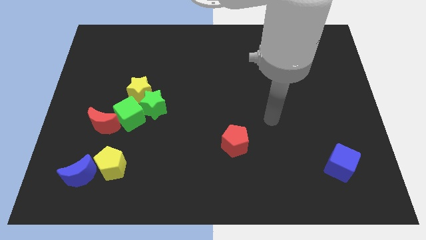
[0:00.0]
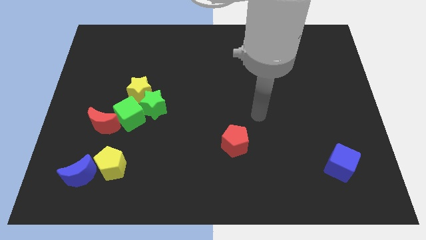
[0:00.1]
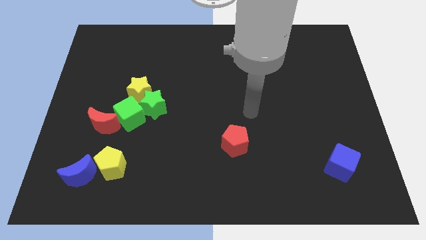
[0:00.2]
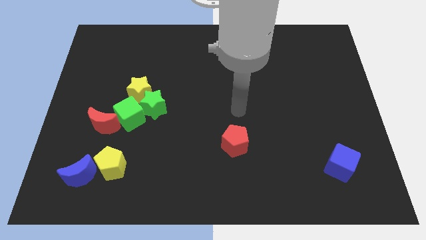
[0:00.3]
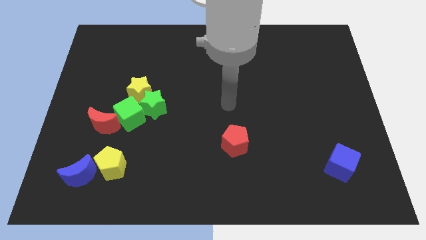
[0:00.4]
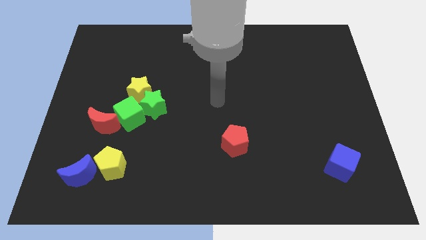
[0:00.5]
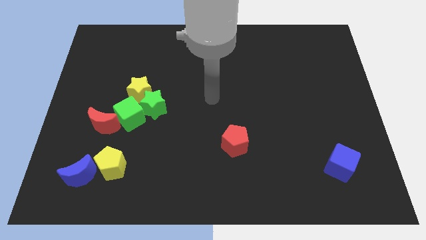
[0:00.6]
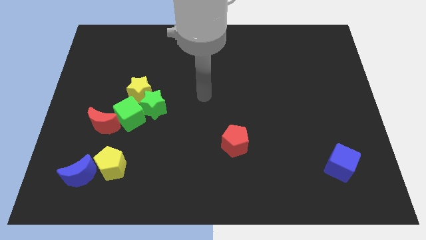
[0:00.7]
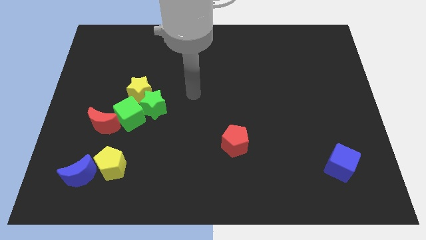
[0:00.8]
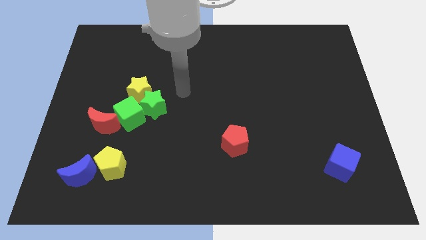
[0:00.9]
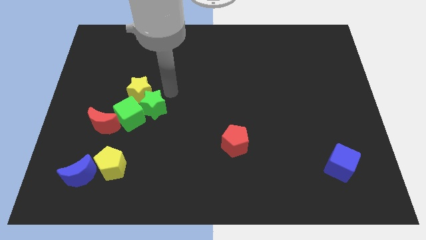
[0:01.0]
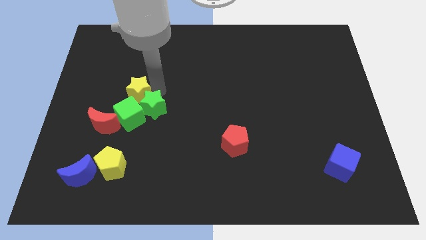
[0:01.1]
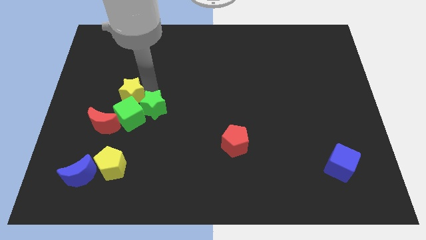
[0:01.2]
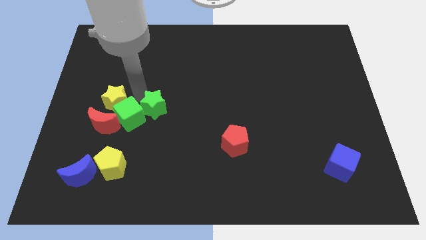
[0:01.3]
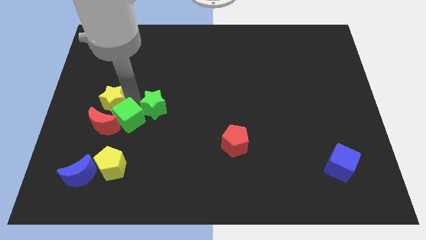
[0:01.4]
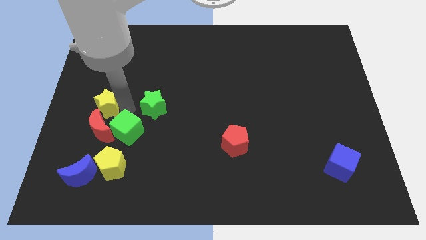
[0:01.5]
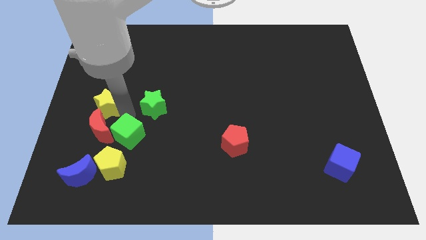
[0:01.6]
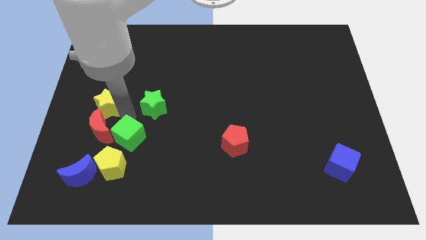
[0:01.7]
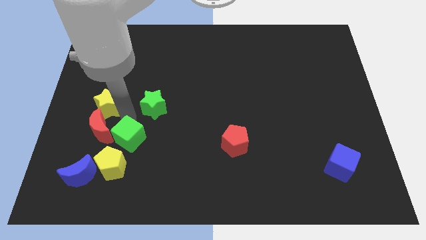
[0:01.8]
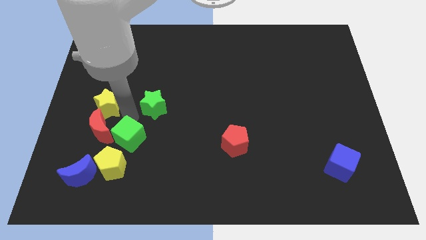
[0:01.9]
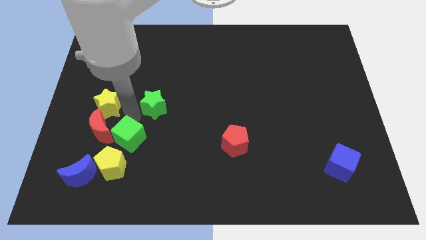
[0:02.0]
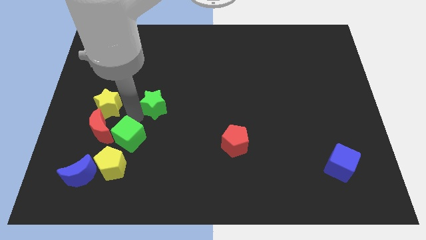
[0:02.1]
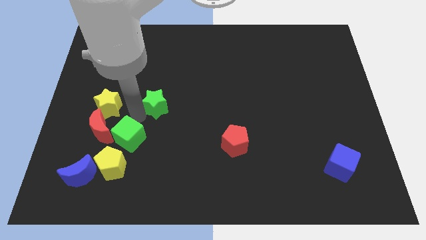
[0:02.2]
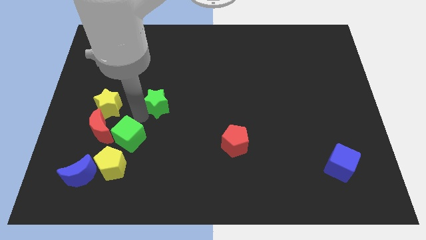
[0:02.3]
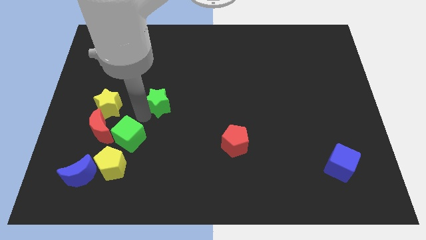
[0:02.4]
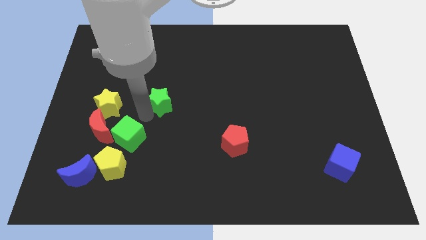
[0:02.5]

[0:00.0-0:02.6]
move the green star away from the yellow star and green cube

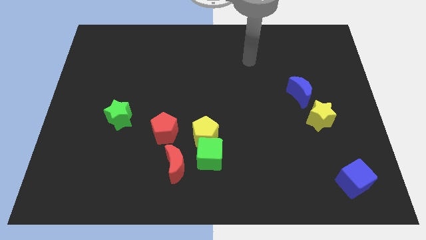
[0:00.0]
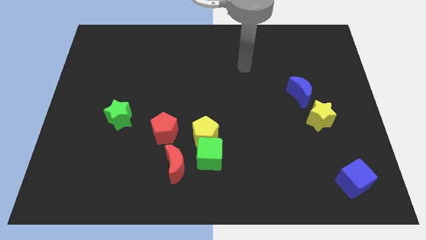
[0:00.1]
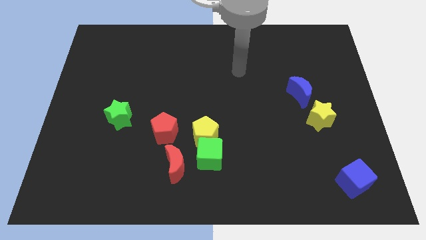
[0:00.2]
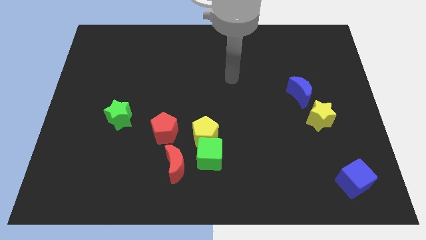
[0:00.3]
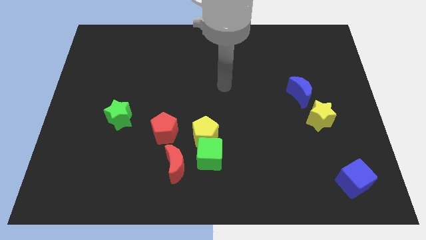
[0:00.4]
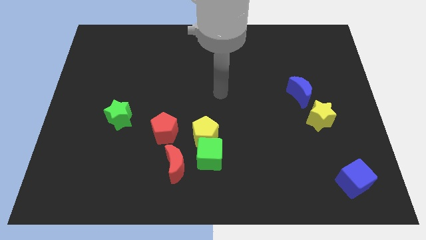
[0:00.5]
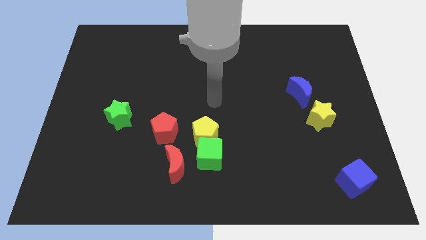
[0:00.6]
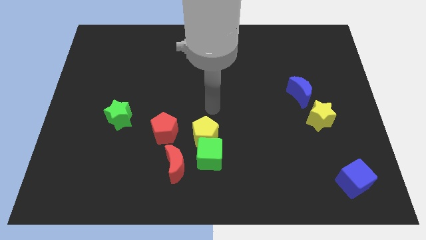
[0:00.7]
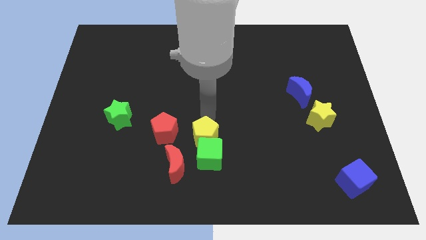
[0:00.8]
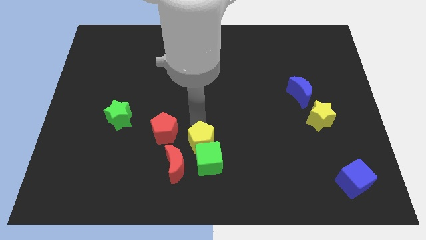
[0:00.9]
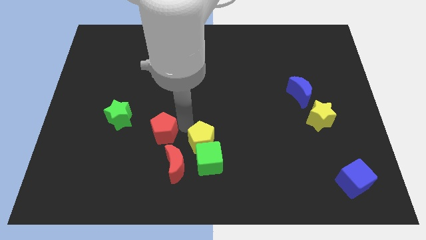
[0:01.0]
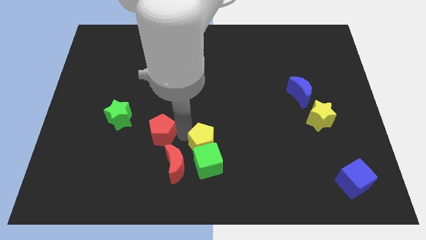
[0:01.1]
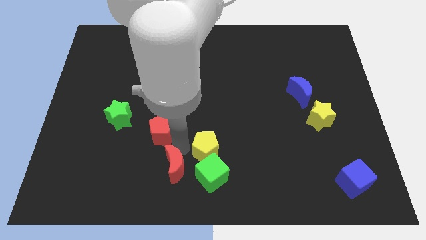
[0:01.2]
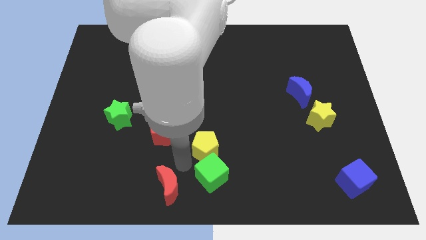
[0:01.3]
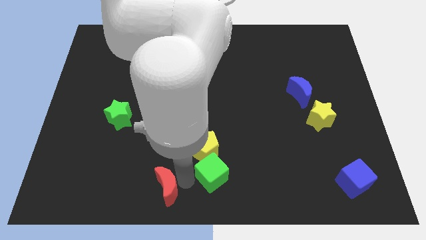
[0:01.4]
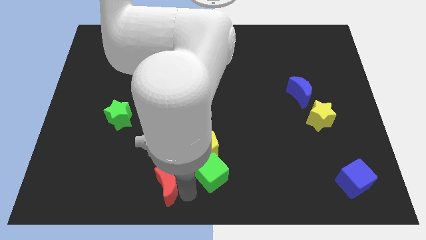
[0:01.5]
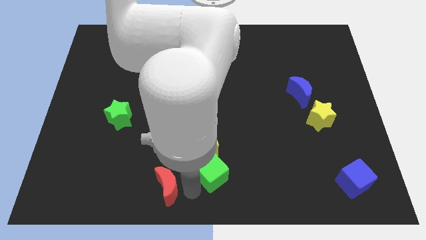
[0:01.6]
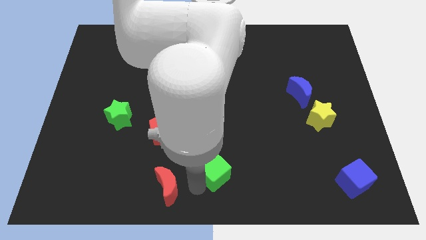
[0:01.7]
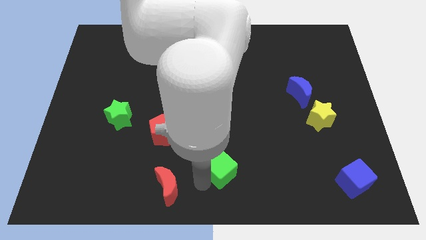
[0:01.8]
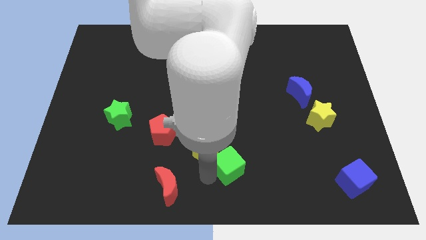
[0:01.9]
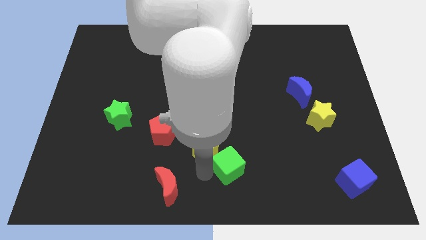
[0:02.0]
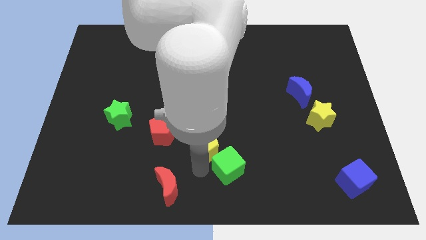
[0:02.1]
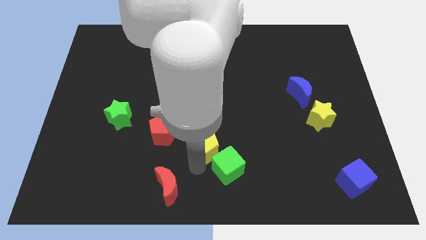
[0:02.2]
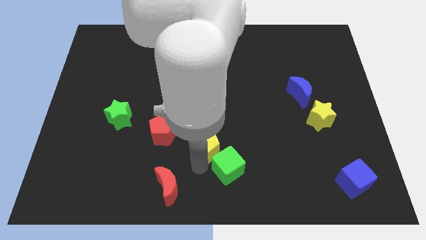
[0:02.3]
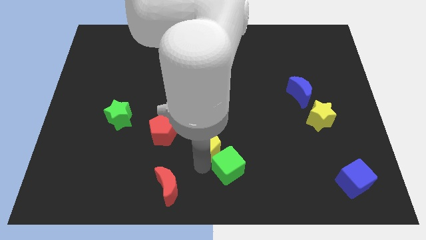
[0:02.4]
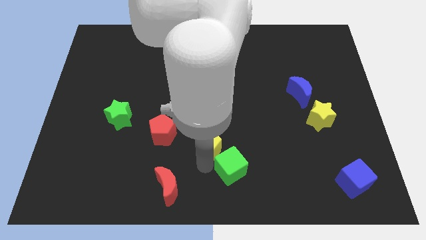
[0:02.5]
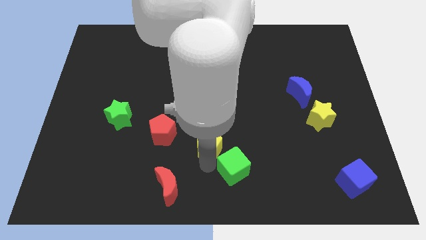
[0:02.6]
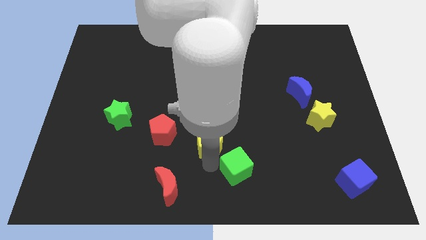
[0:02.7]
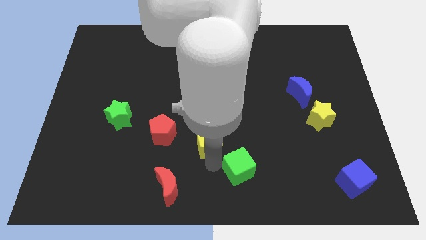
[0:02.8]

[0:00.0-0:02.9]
separate the green cube from the yellow pentagon and red moon

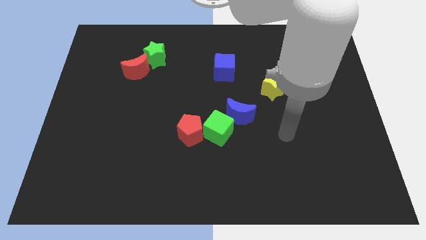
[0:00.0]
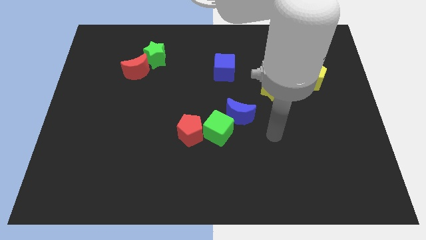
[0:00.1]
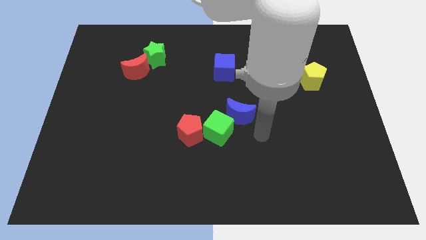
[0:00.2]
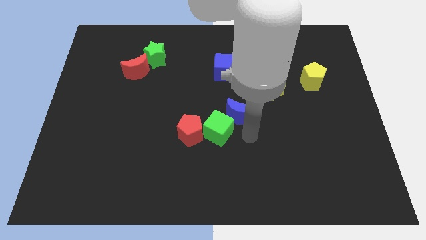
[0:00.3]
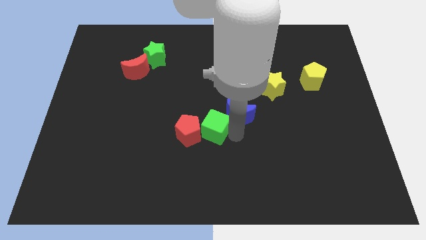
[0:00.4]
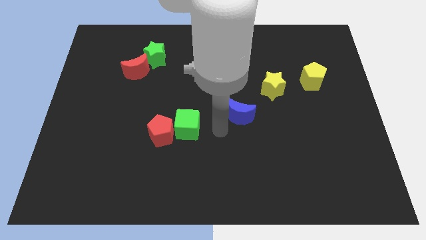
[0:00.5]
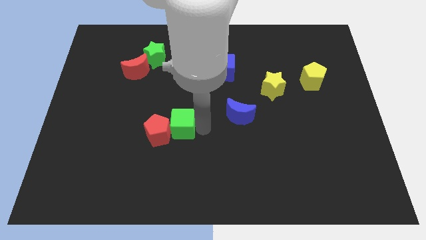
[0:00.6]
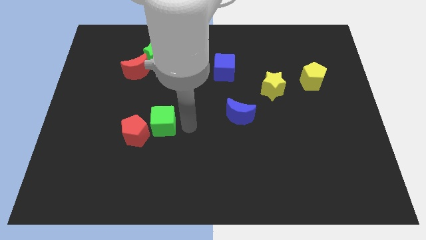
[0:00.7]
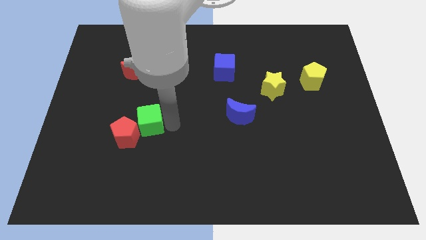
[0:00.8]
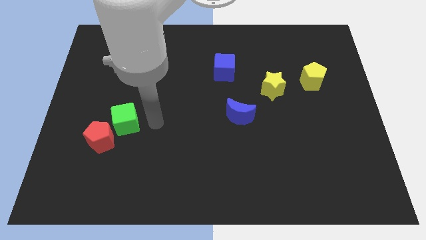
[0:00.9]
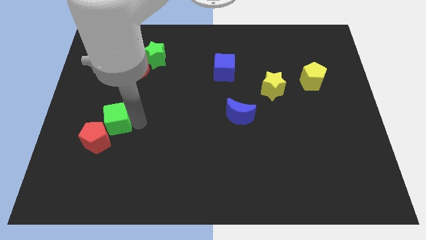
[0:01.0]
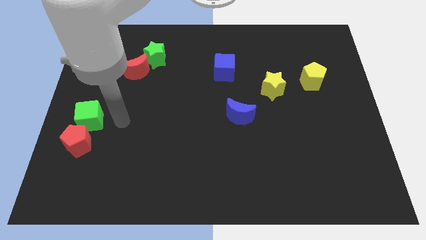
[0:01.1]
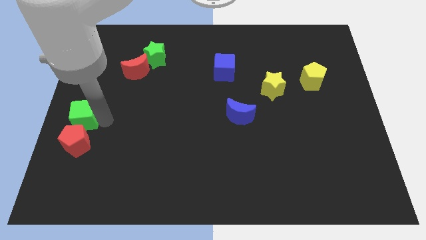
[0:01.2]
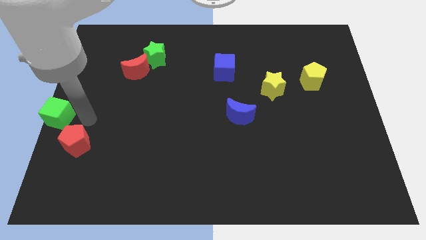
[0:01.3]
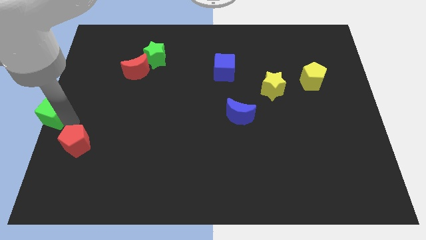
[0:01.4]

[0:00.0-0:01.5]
move the red pentagon away from the green cube

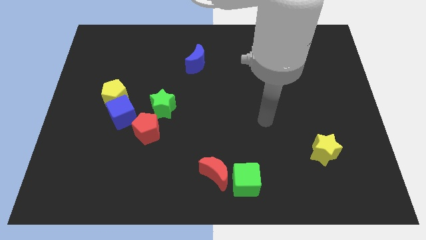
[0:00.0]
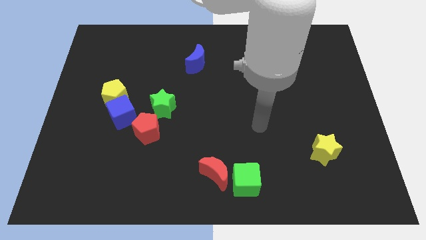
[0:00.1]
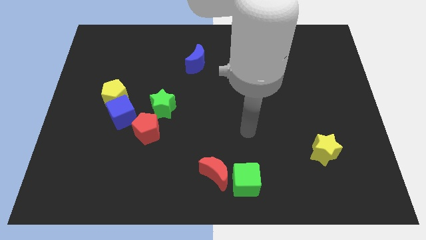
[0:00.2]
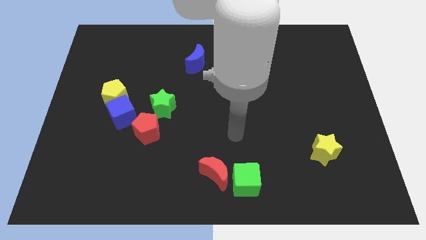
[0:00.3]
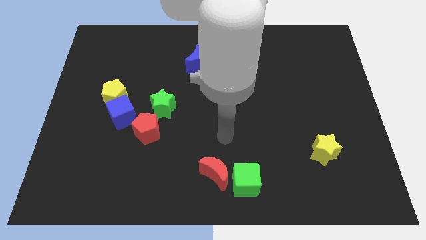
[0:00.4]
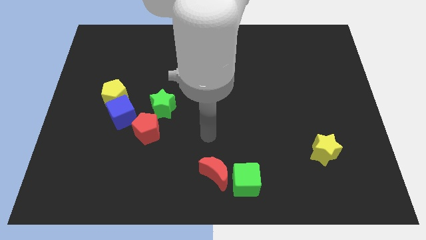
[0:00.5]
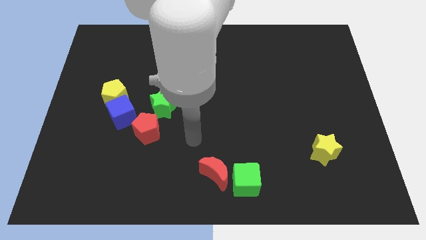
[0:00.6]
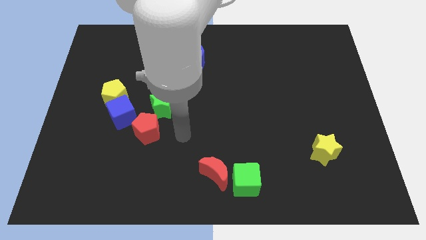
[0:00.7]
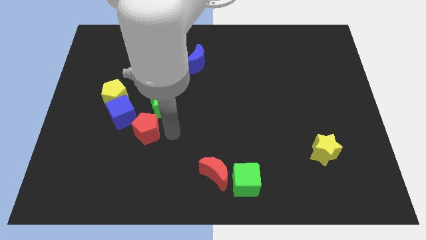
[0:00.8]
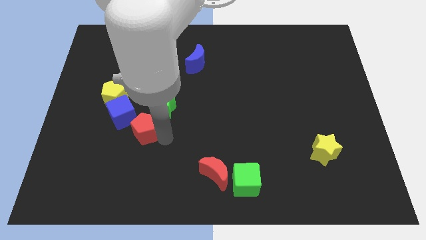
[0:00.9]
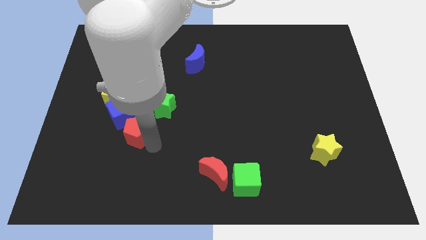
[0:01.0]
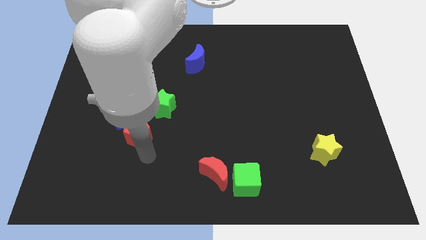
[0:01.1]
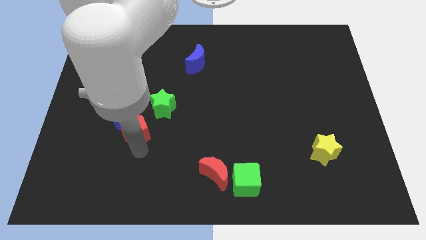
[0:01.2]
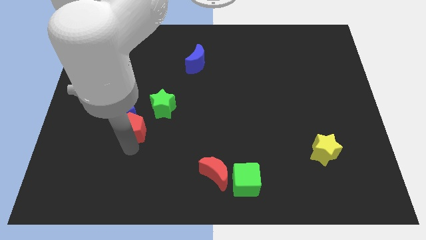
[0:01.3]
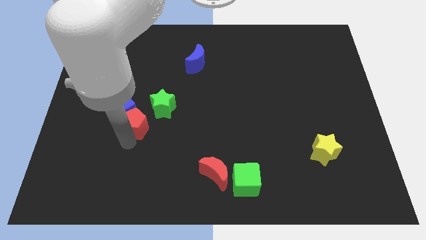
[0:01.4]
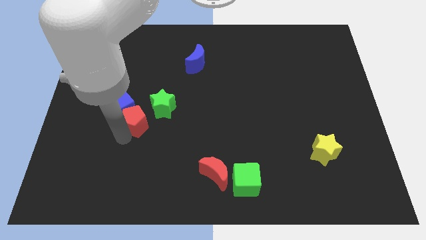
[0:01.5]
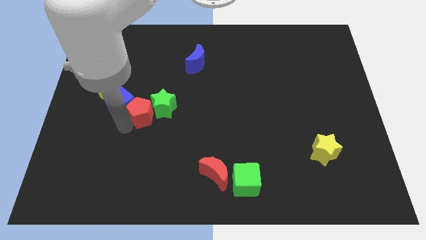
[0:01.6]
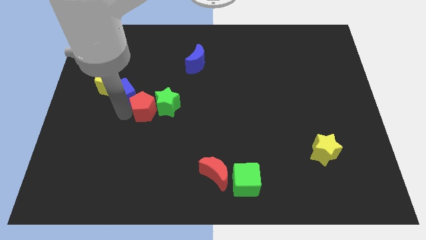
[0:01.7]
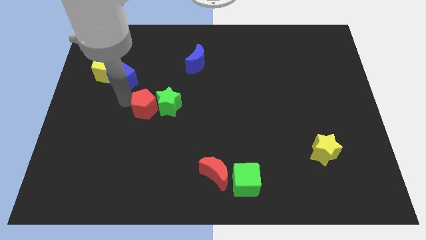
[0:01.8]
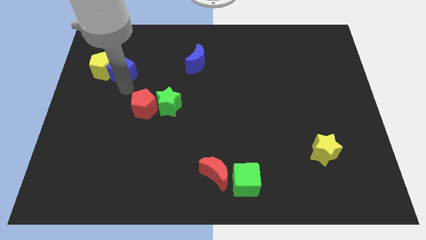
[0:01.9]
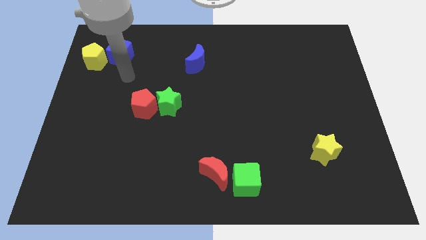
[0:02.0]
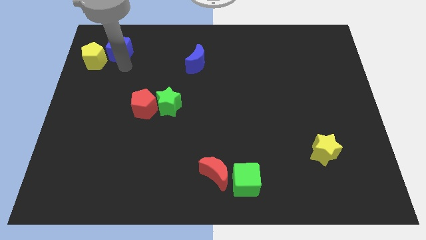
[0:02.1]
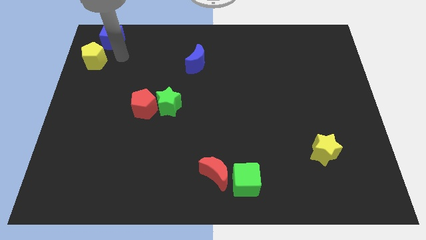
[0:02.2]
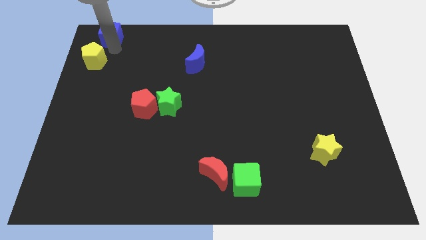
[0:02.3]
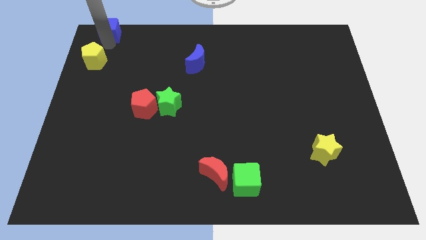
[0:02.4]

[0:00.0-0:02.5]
pull the yellow pentagon apart from the blue cube
